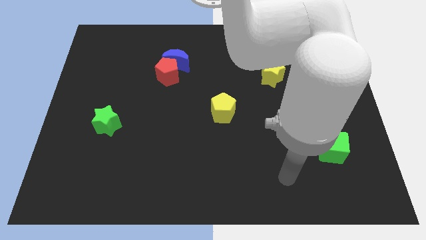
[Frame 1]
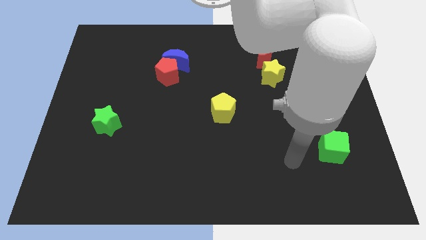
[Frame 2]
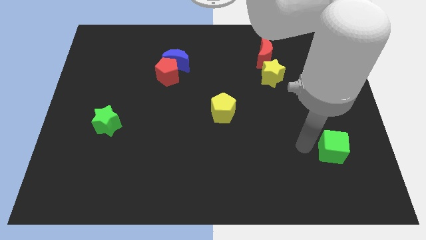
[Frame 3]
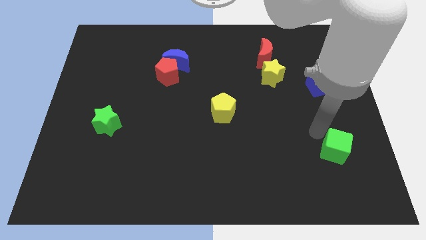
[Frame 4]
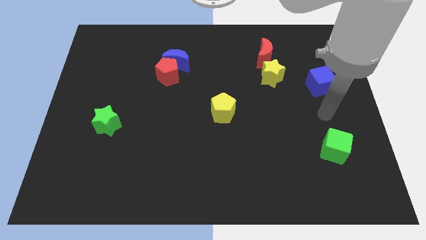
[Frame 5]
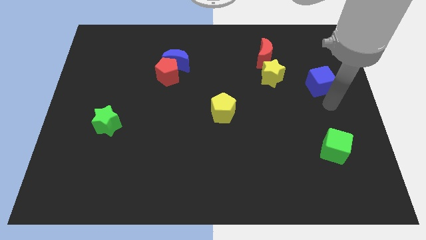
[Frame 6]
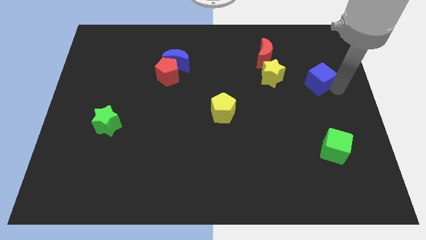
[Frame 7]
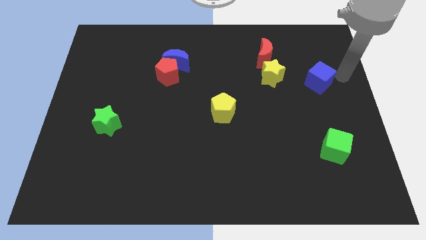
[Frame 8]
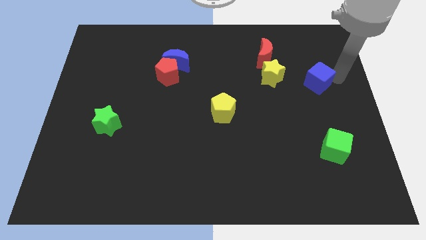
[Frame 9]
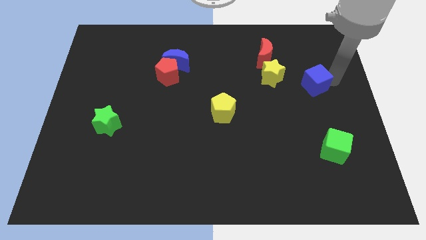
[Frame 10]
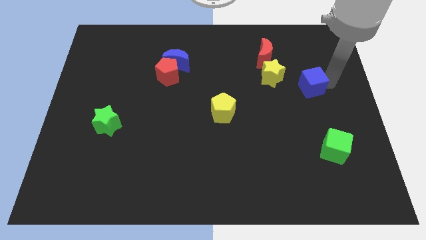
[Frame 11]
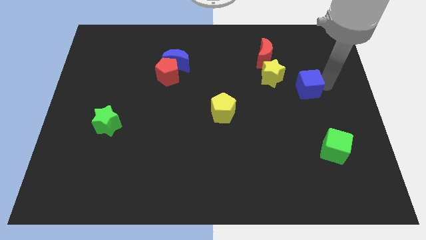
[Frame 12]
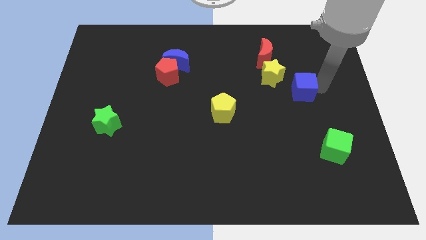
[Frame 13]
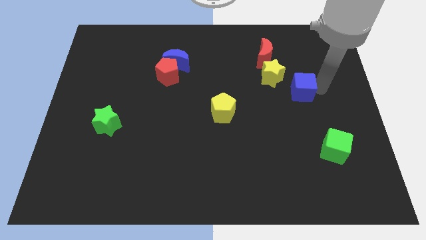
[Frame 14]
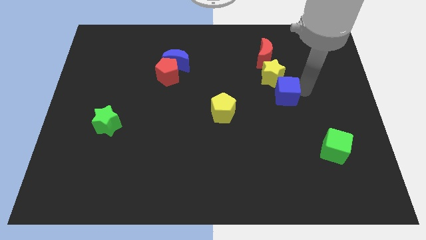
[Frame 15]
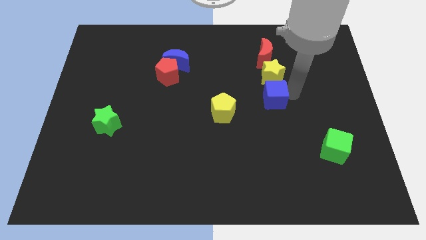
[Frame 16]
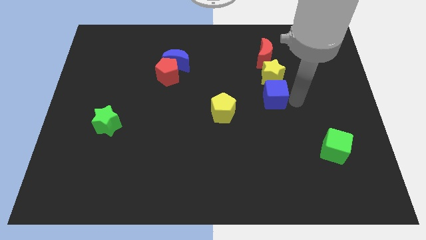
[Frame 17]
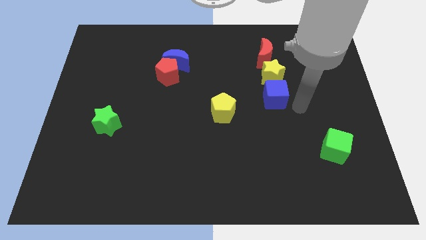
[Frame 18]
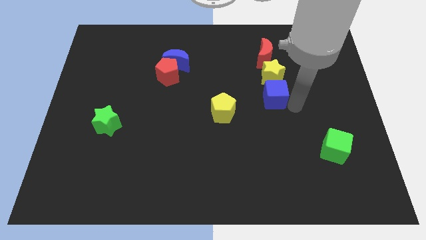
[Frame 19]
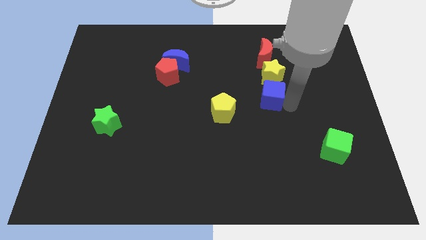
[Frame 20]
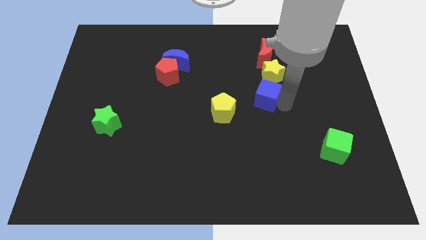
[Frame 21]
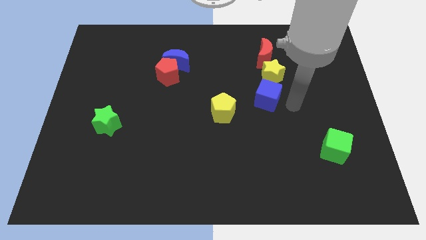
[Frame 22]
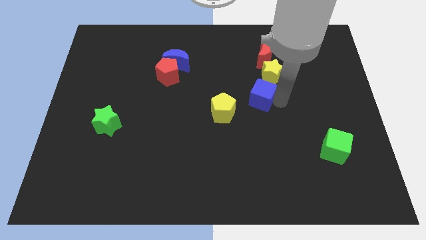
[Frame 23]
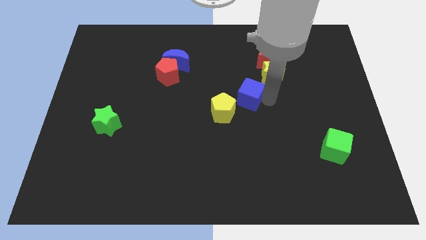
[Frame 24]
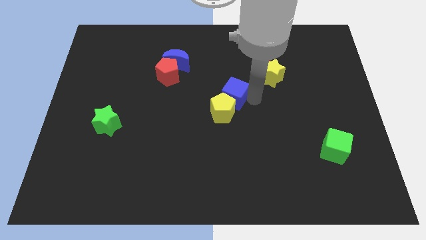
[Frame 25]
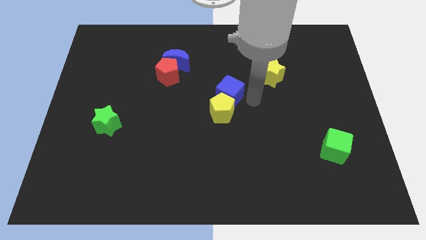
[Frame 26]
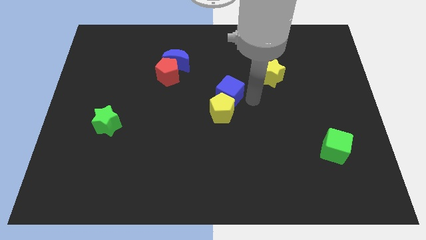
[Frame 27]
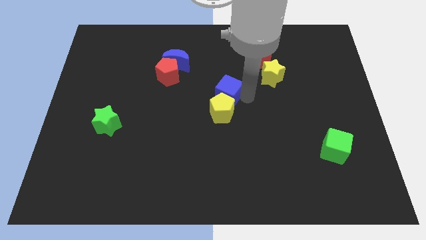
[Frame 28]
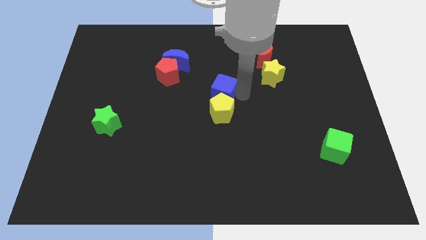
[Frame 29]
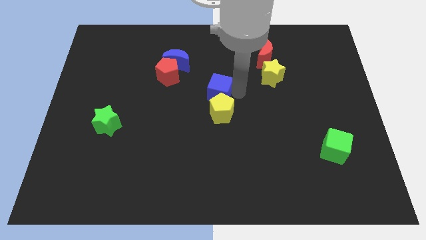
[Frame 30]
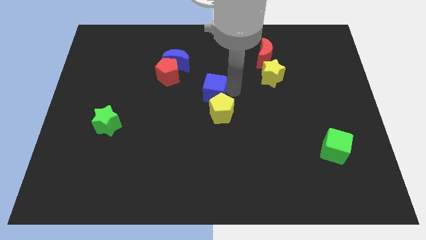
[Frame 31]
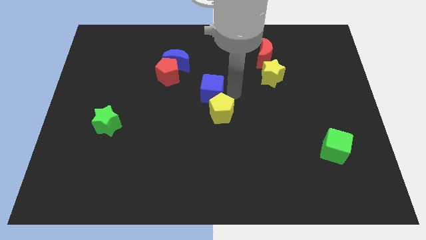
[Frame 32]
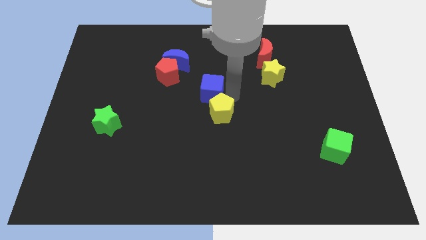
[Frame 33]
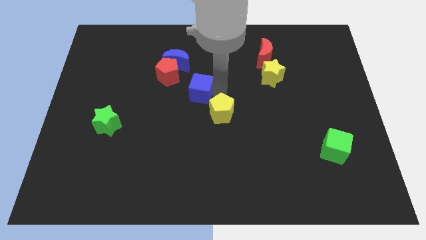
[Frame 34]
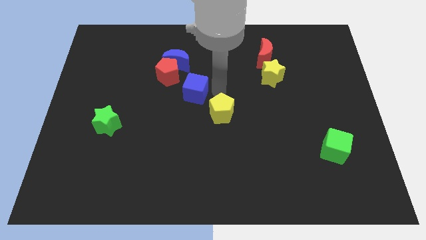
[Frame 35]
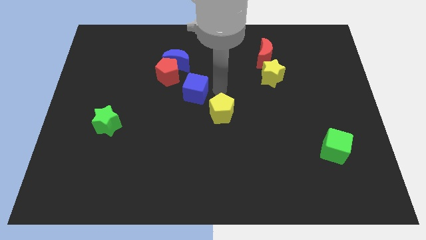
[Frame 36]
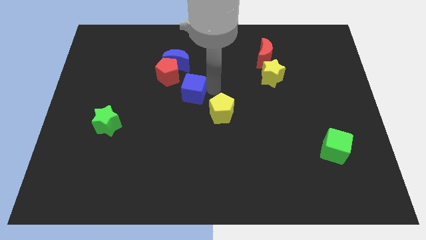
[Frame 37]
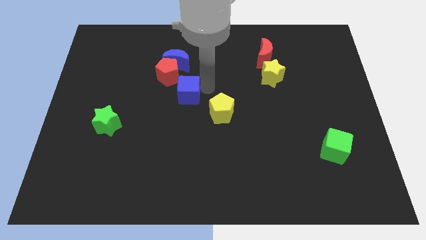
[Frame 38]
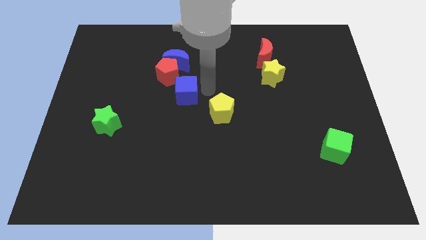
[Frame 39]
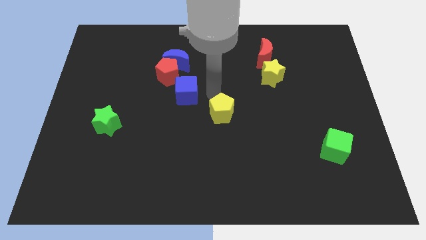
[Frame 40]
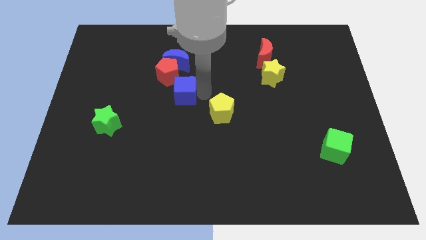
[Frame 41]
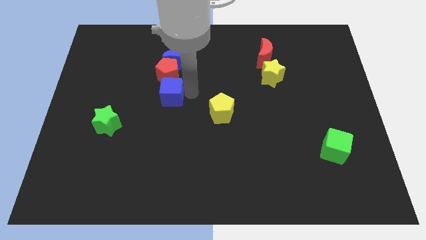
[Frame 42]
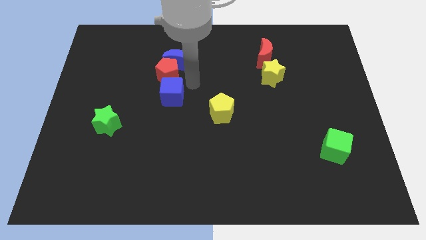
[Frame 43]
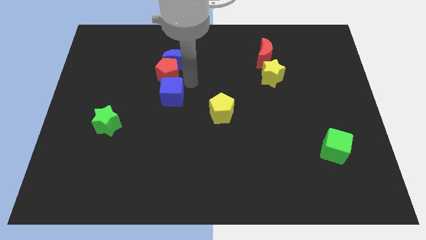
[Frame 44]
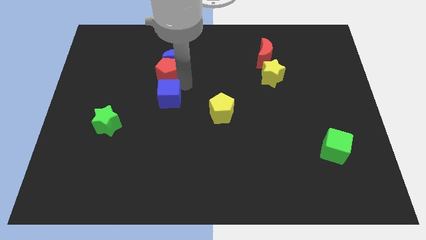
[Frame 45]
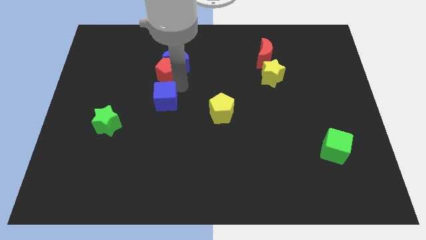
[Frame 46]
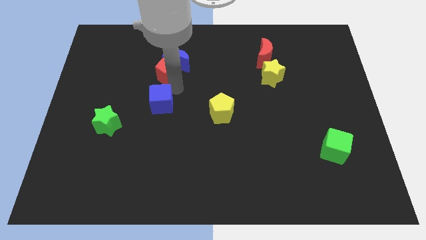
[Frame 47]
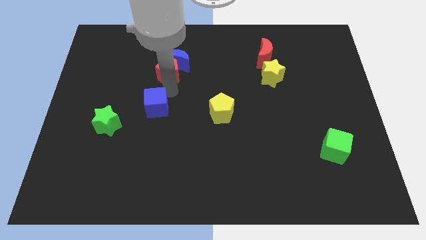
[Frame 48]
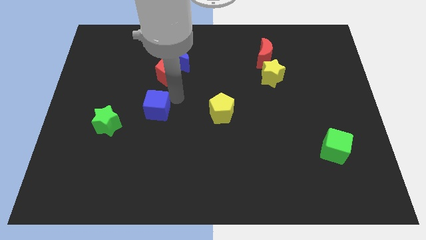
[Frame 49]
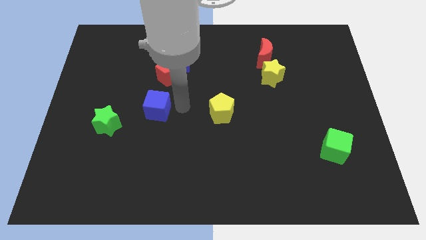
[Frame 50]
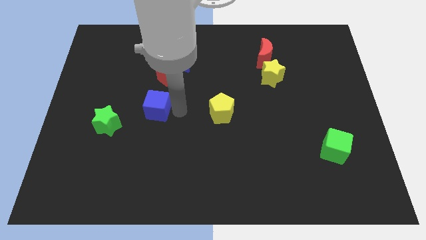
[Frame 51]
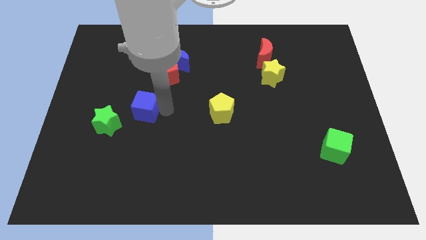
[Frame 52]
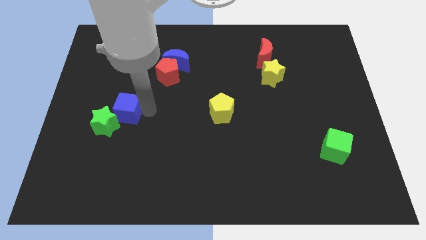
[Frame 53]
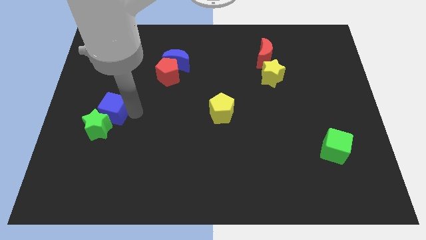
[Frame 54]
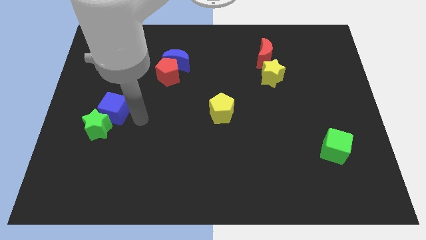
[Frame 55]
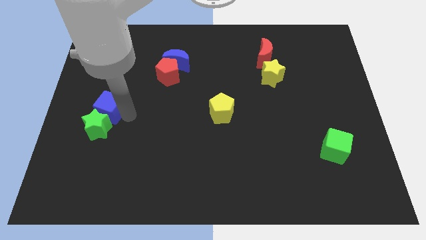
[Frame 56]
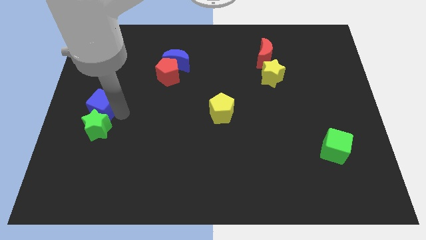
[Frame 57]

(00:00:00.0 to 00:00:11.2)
move the blue cube to the center left

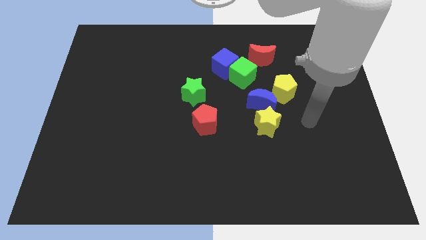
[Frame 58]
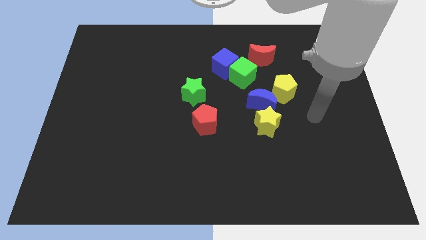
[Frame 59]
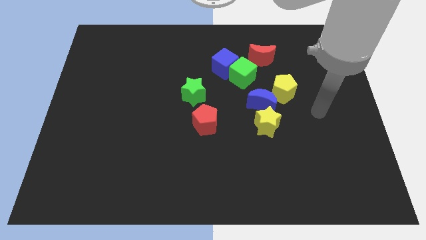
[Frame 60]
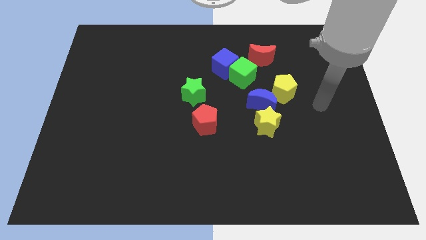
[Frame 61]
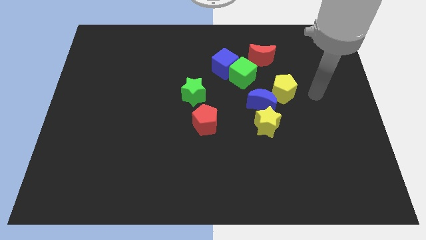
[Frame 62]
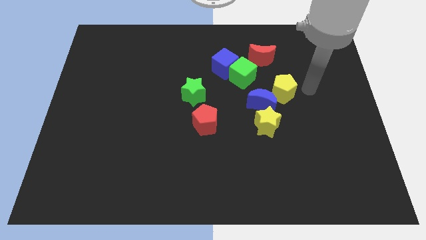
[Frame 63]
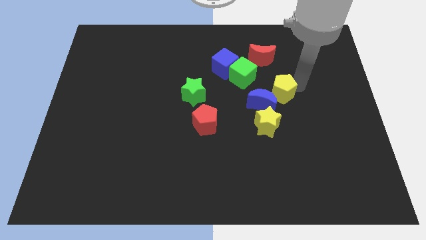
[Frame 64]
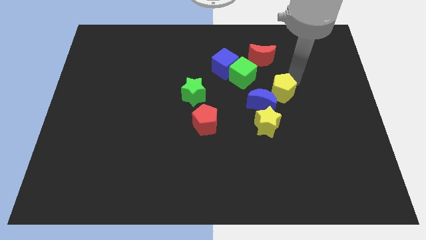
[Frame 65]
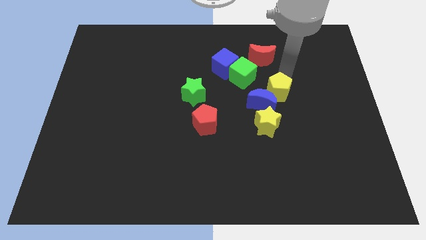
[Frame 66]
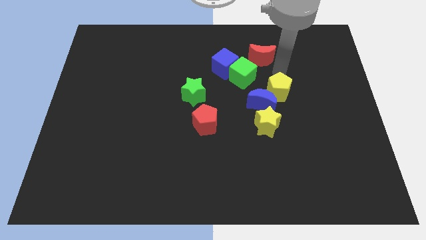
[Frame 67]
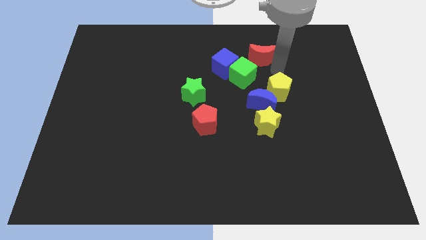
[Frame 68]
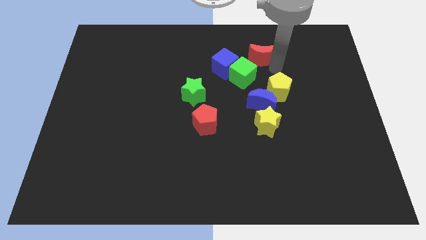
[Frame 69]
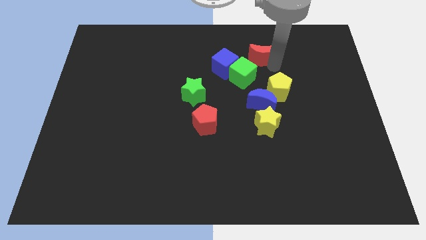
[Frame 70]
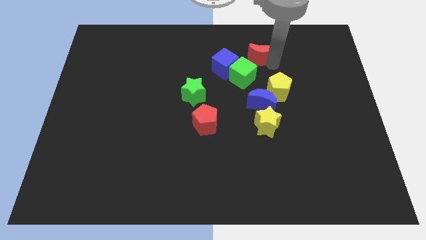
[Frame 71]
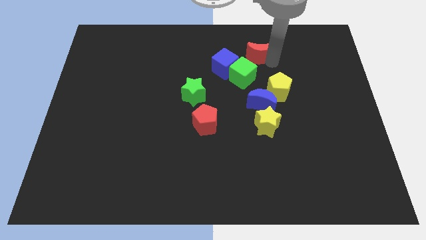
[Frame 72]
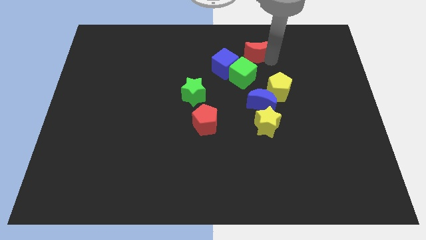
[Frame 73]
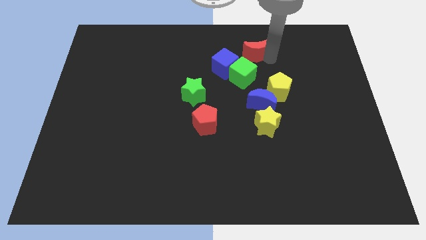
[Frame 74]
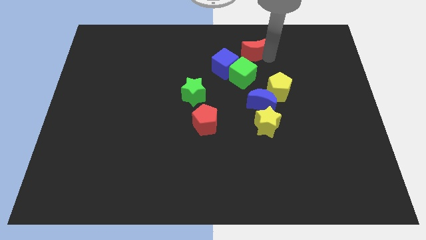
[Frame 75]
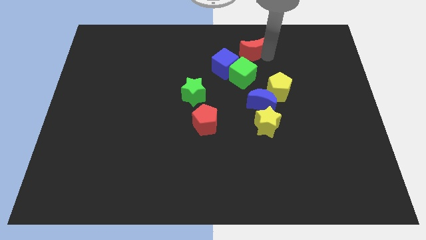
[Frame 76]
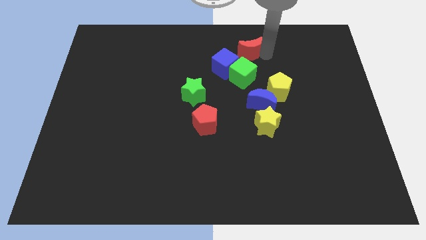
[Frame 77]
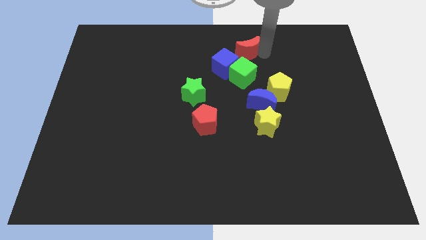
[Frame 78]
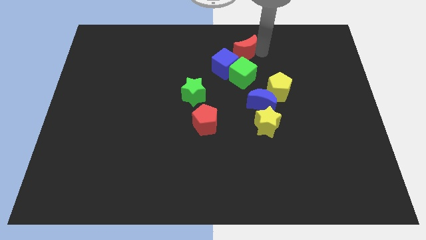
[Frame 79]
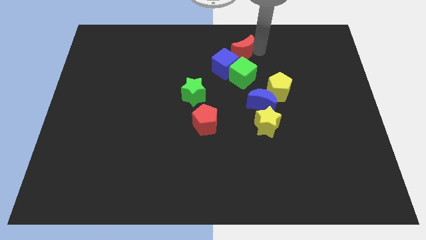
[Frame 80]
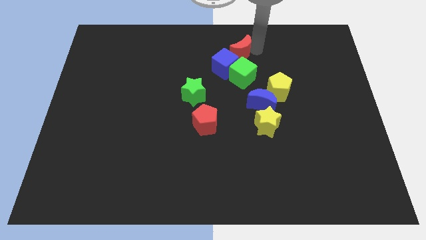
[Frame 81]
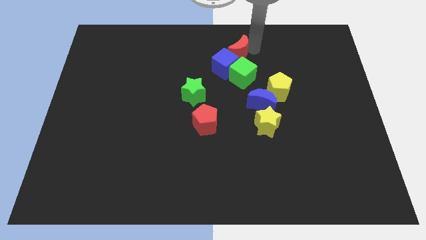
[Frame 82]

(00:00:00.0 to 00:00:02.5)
move the red moon to the top side
